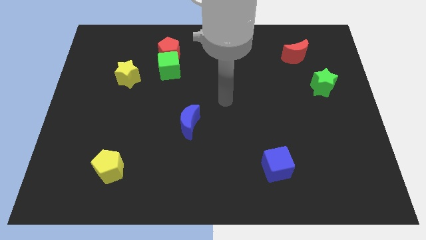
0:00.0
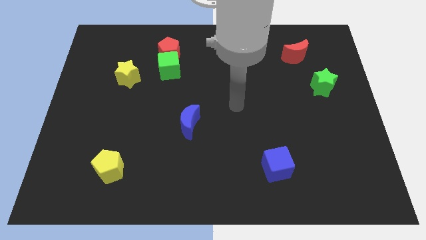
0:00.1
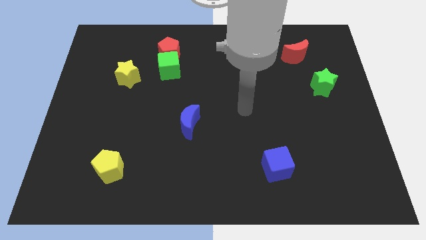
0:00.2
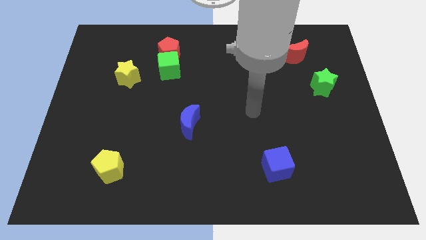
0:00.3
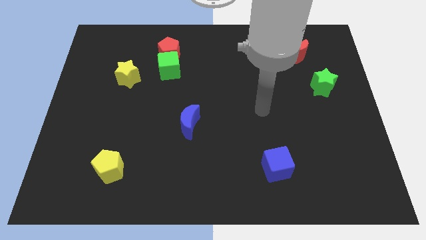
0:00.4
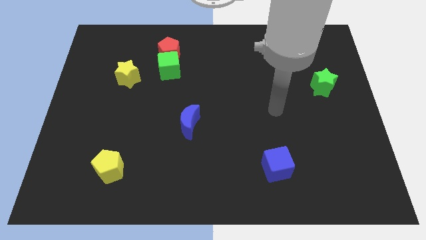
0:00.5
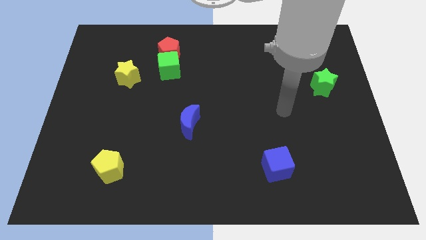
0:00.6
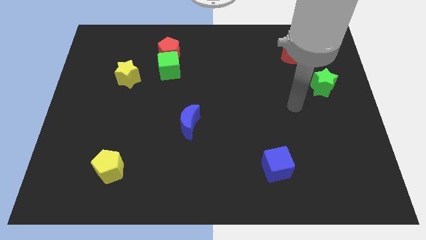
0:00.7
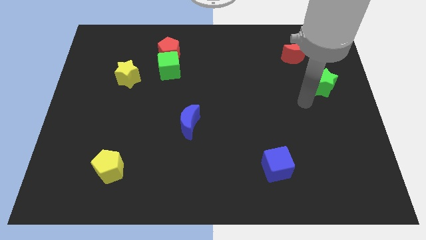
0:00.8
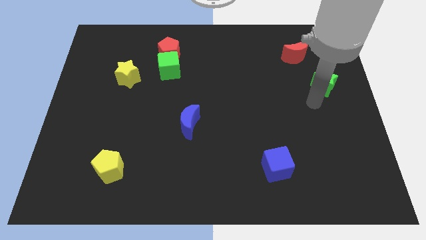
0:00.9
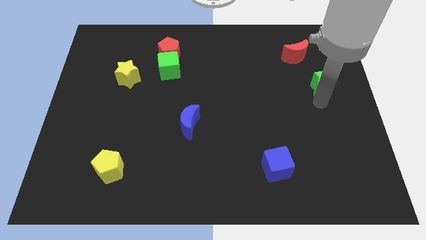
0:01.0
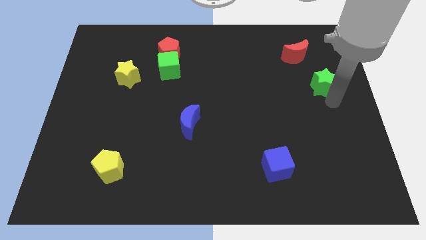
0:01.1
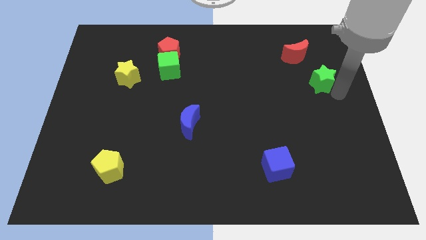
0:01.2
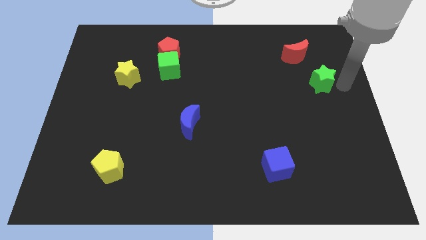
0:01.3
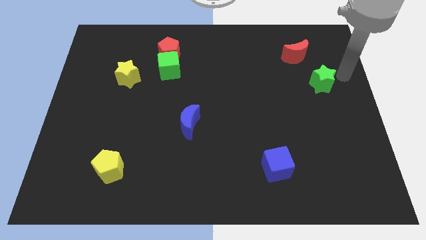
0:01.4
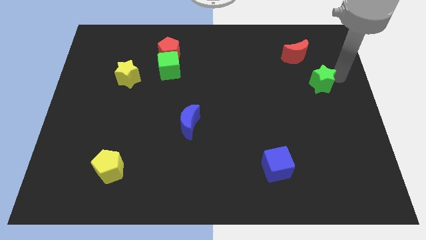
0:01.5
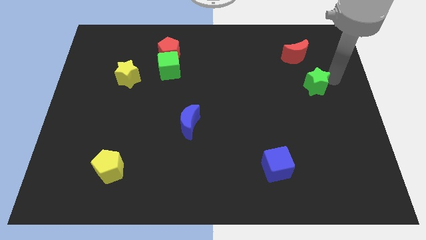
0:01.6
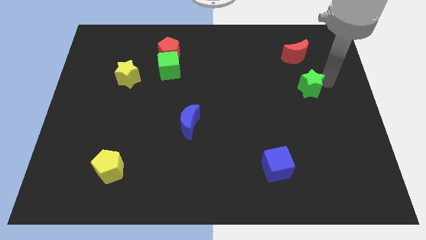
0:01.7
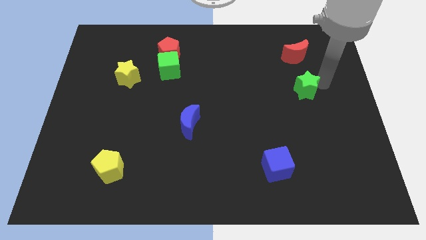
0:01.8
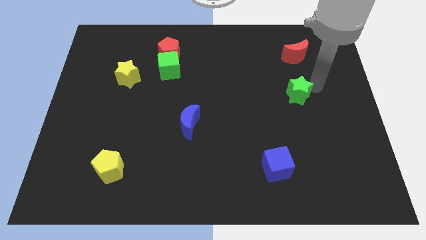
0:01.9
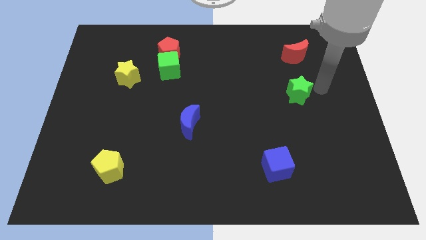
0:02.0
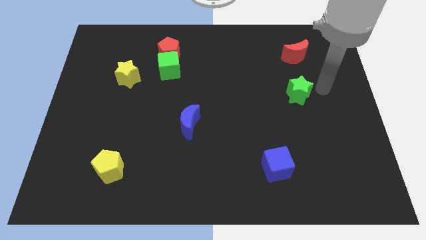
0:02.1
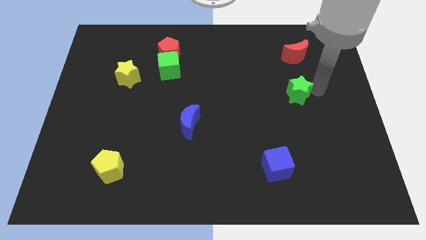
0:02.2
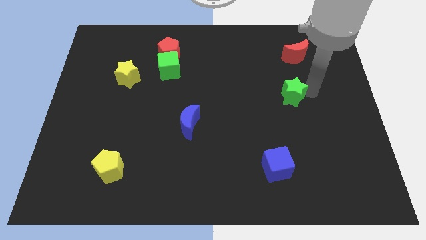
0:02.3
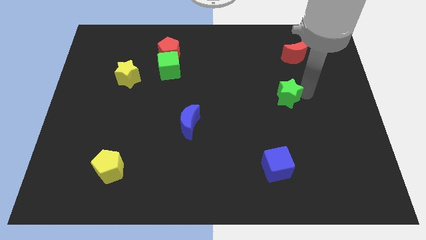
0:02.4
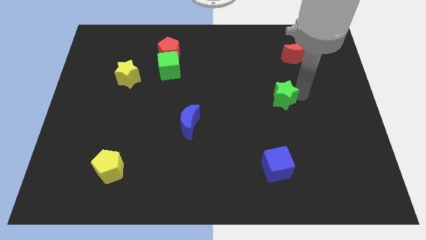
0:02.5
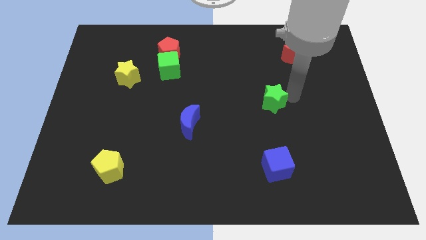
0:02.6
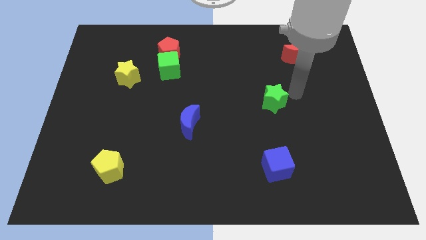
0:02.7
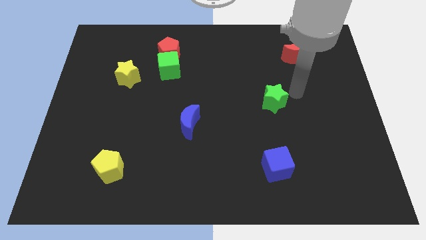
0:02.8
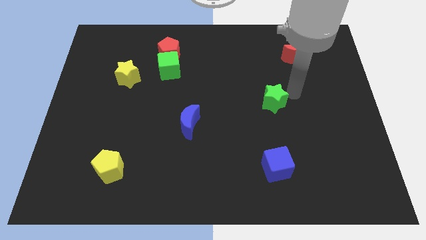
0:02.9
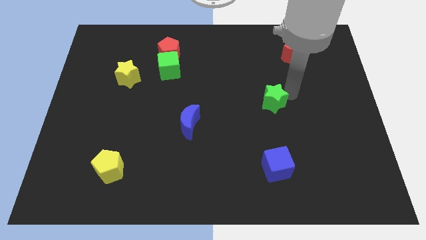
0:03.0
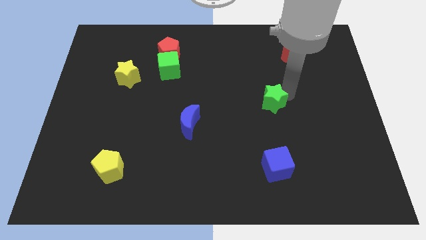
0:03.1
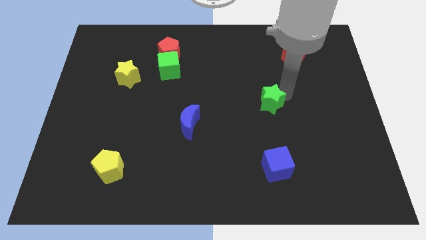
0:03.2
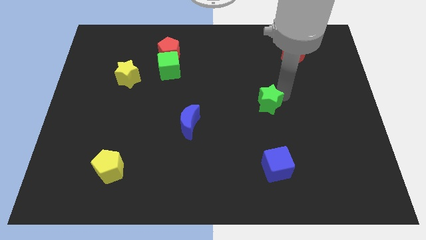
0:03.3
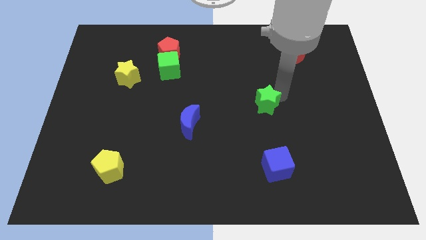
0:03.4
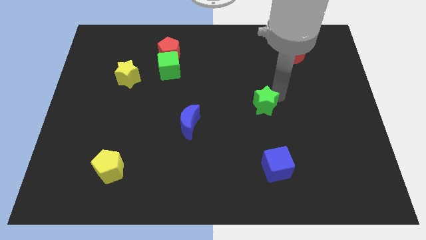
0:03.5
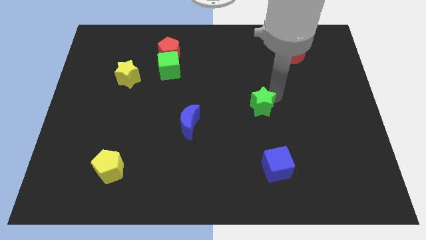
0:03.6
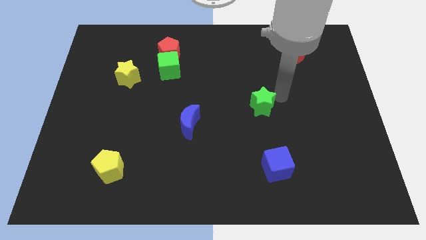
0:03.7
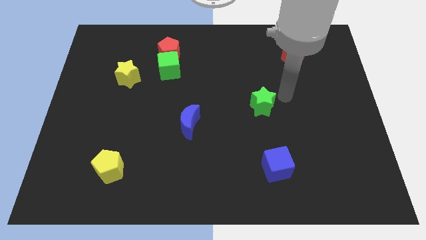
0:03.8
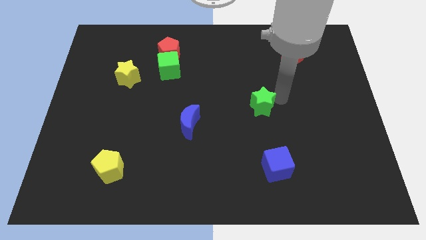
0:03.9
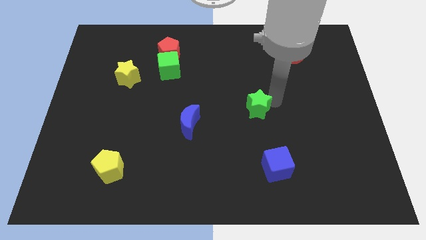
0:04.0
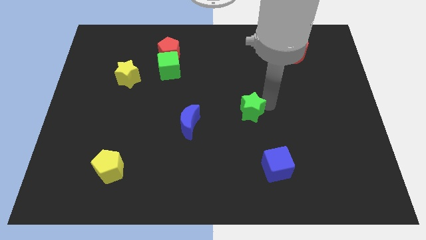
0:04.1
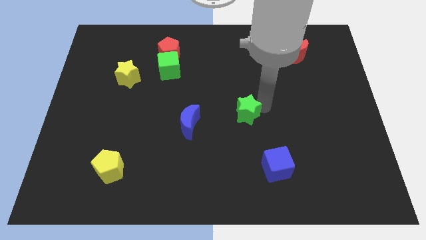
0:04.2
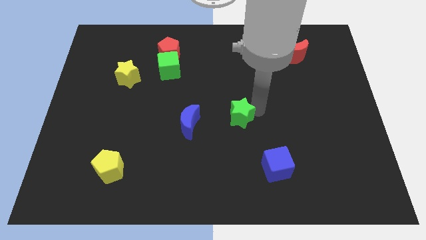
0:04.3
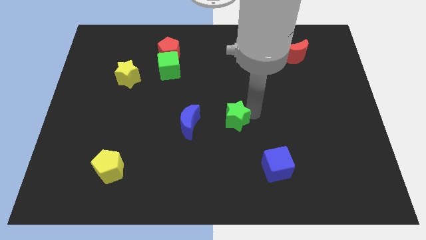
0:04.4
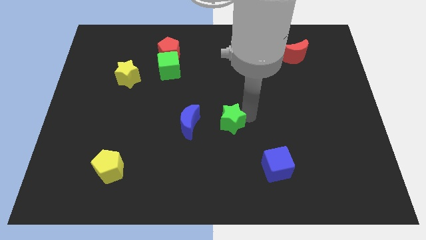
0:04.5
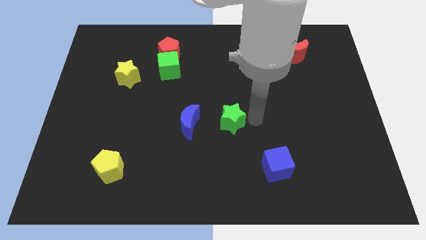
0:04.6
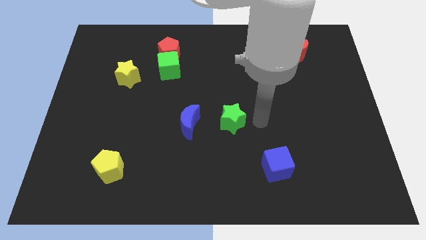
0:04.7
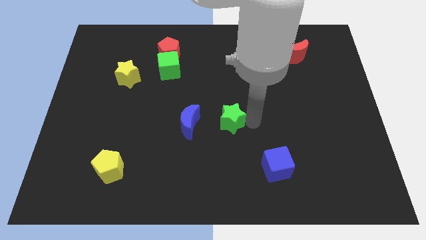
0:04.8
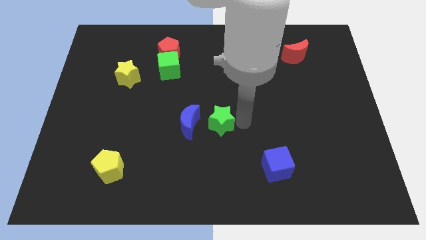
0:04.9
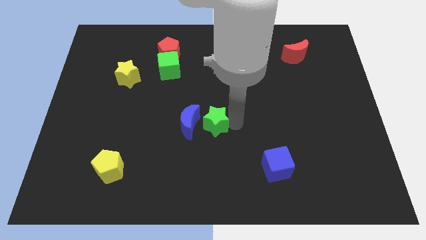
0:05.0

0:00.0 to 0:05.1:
slide the green star next to the blue moon

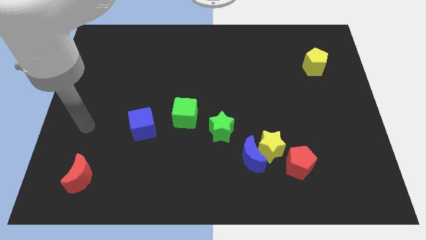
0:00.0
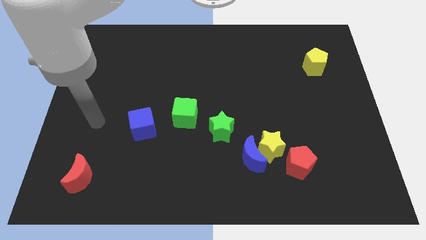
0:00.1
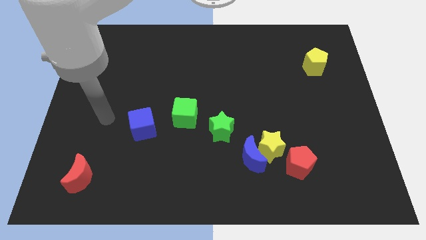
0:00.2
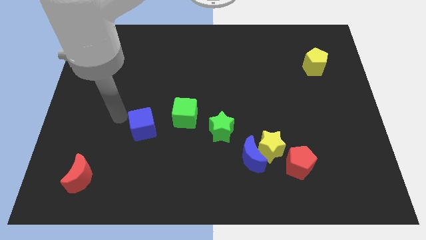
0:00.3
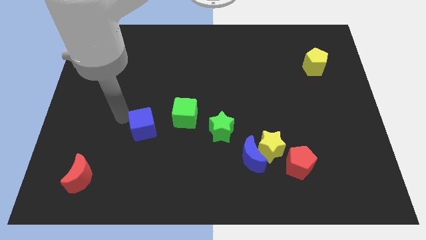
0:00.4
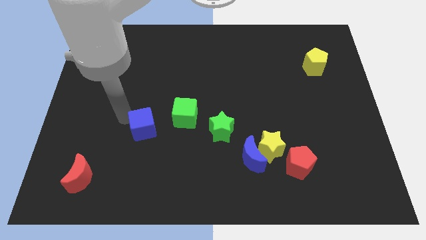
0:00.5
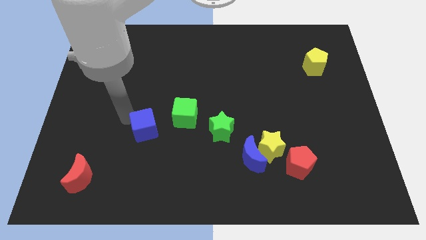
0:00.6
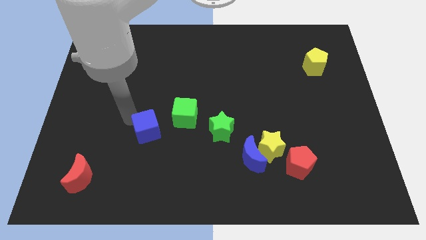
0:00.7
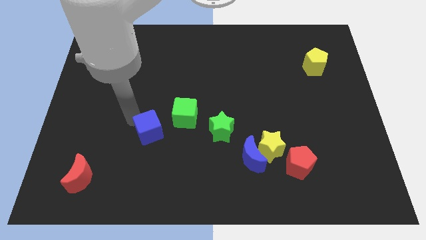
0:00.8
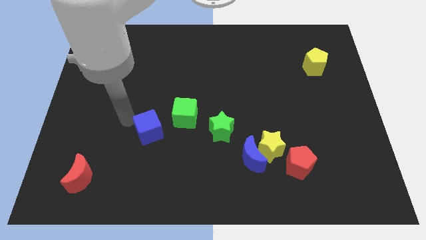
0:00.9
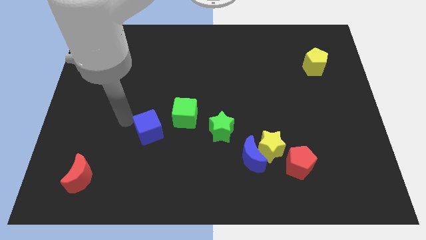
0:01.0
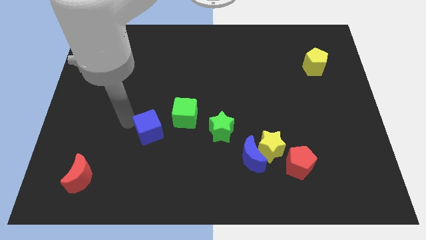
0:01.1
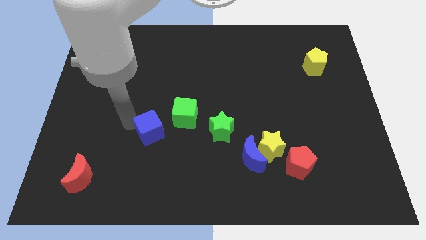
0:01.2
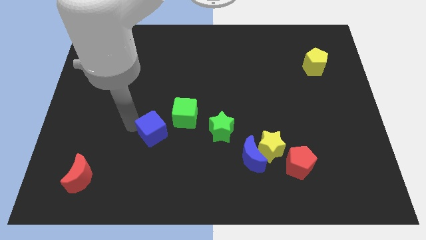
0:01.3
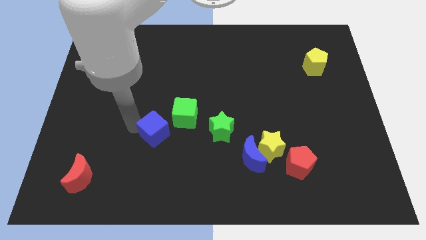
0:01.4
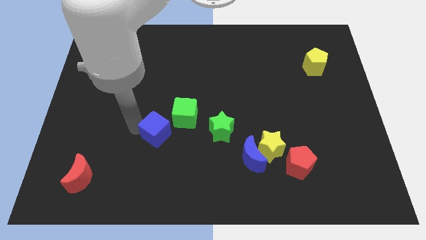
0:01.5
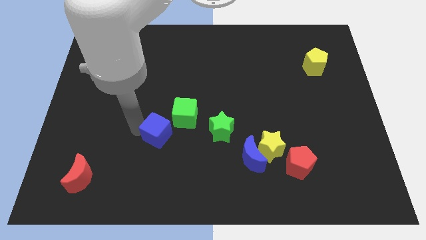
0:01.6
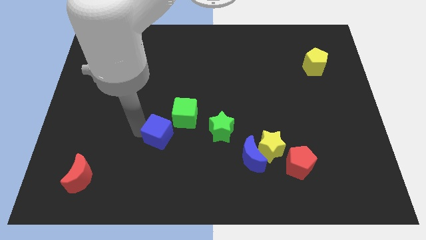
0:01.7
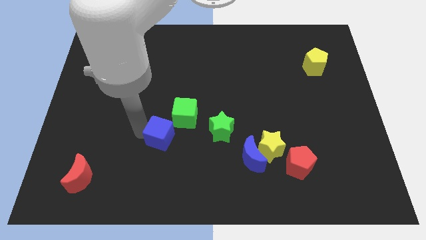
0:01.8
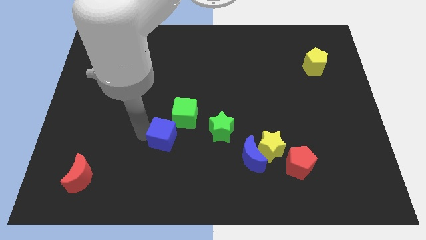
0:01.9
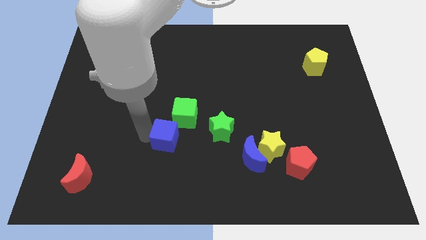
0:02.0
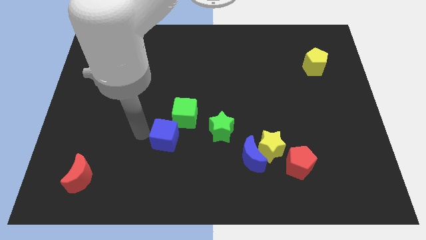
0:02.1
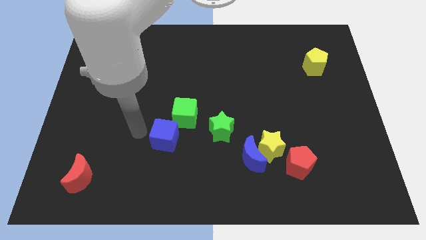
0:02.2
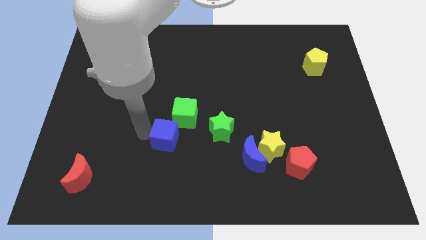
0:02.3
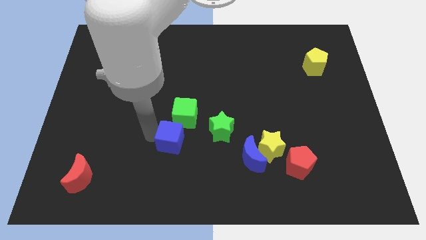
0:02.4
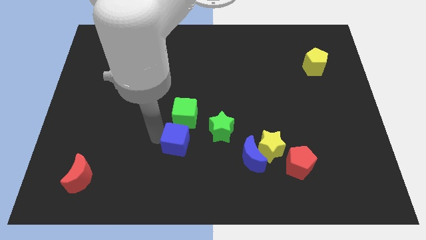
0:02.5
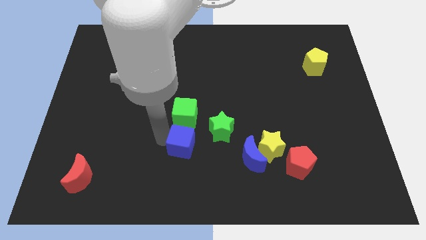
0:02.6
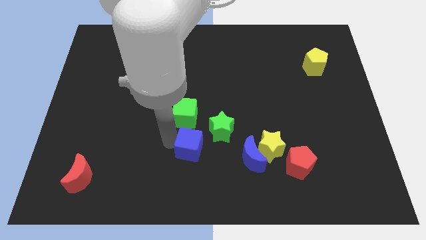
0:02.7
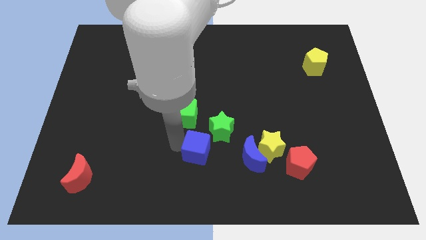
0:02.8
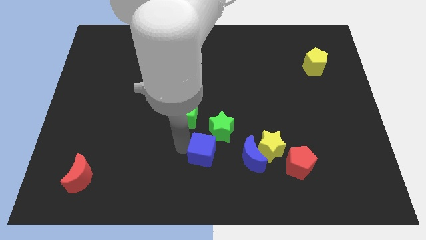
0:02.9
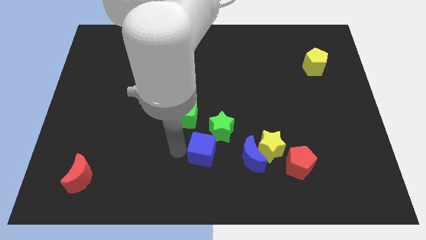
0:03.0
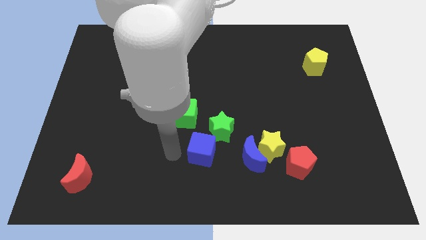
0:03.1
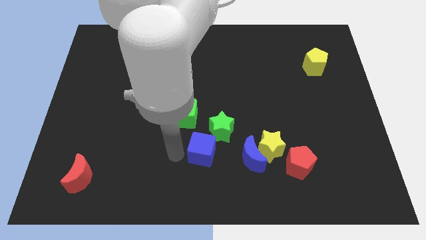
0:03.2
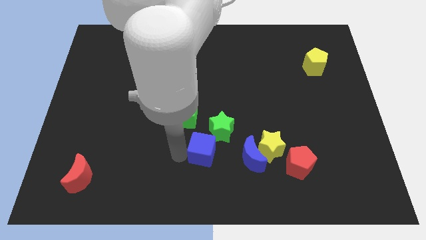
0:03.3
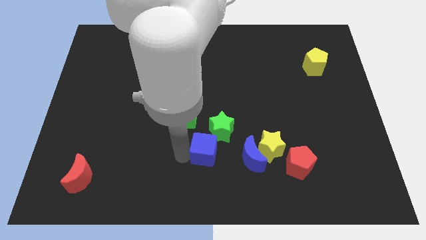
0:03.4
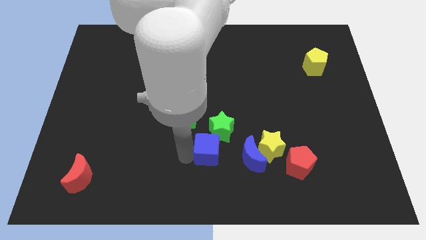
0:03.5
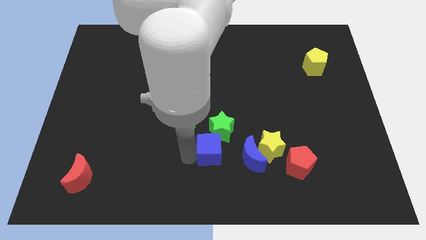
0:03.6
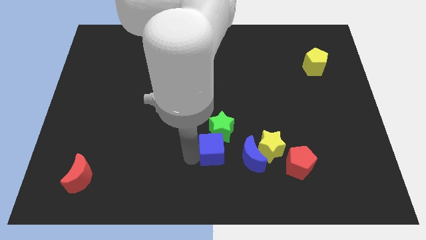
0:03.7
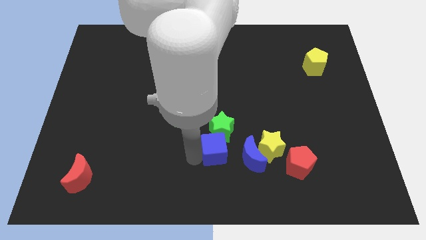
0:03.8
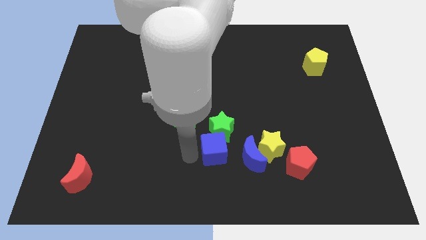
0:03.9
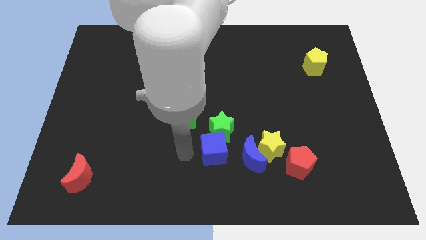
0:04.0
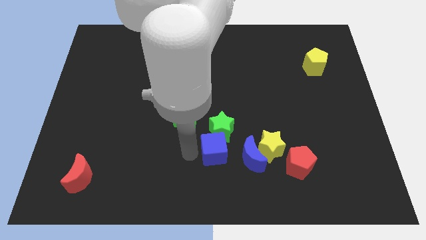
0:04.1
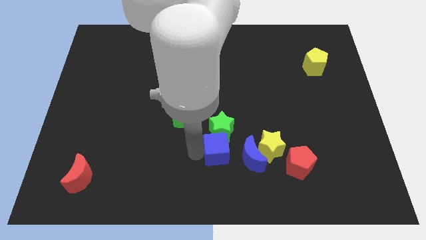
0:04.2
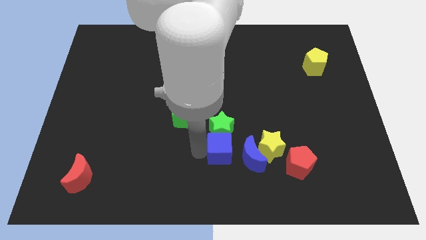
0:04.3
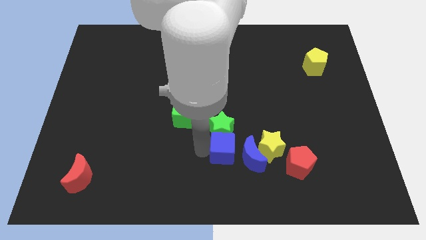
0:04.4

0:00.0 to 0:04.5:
slide the blue cube close to the blue moon
